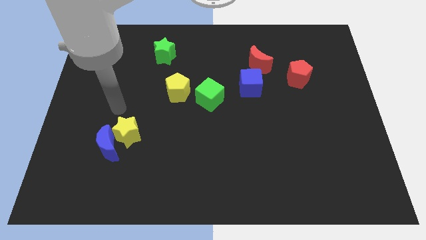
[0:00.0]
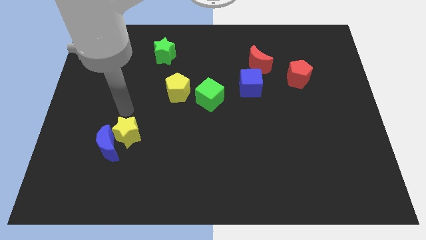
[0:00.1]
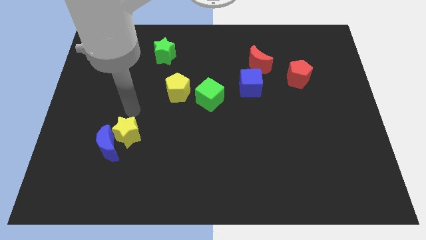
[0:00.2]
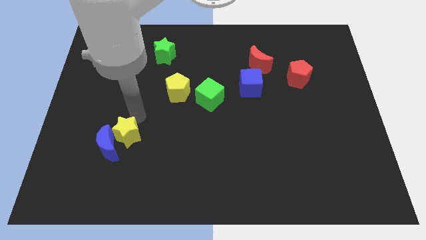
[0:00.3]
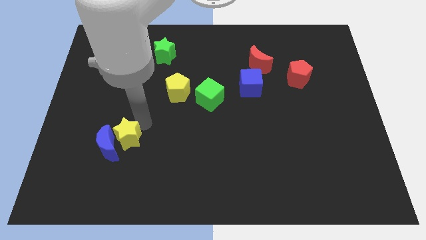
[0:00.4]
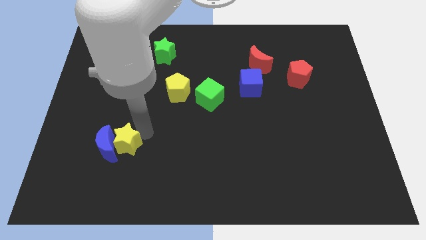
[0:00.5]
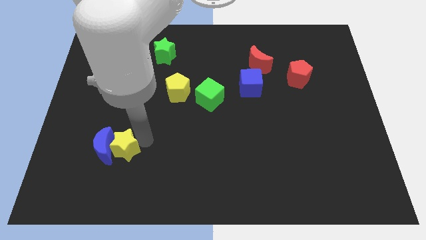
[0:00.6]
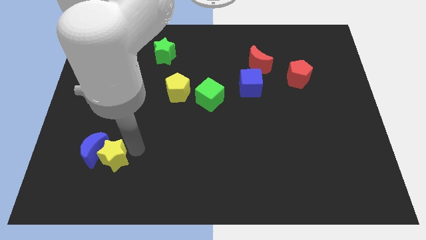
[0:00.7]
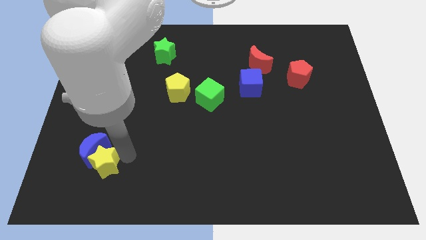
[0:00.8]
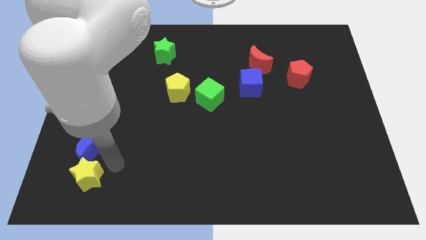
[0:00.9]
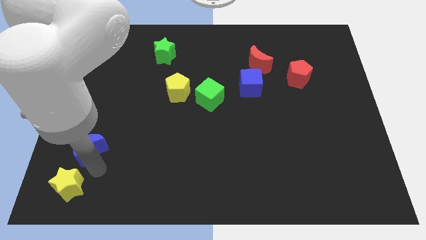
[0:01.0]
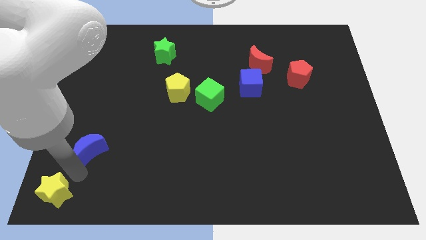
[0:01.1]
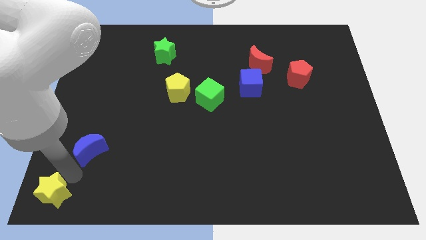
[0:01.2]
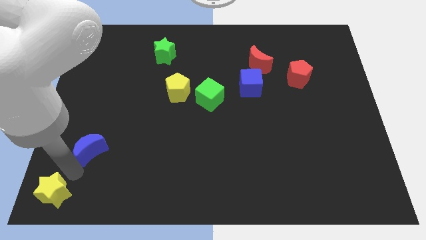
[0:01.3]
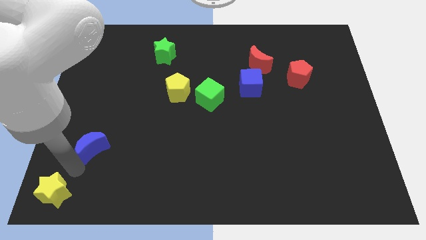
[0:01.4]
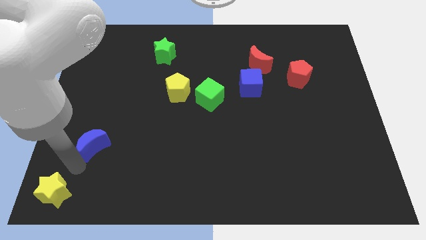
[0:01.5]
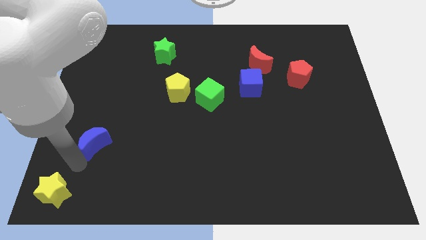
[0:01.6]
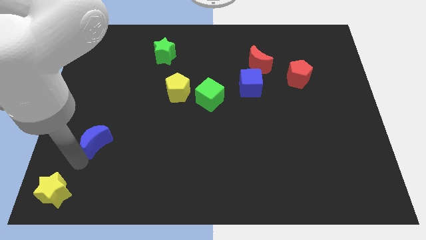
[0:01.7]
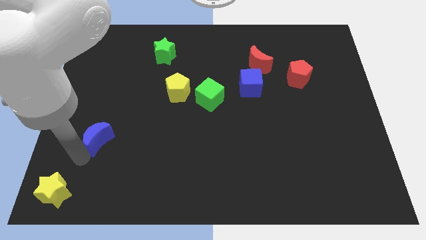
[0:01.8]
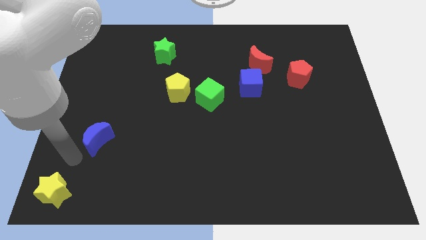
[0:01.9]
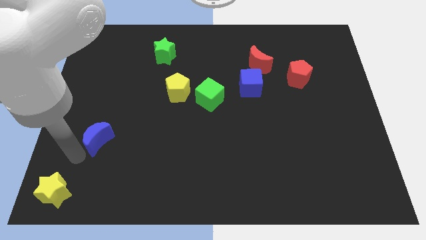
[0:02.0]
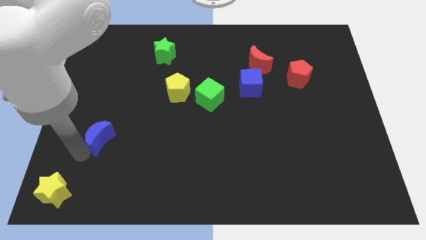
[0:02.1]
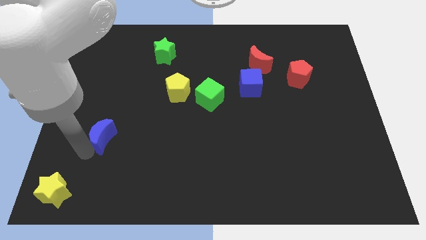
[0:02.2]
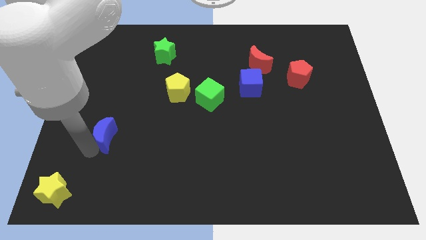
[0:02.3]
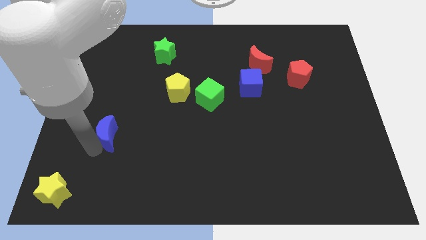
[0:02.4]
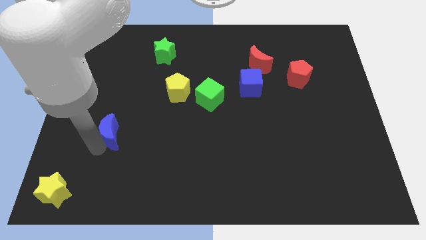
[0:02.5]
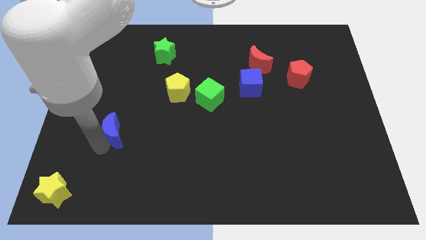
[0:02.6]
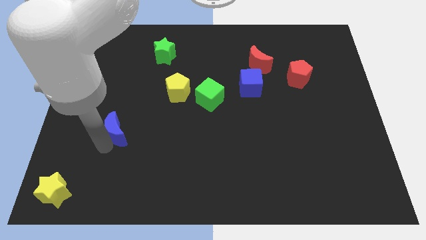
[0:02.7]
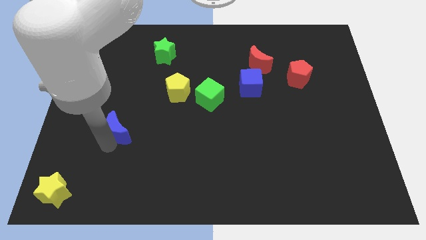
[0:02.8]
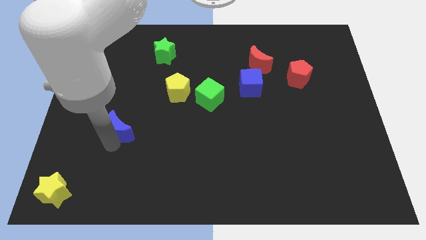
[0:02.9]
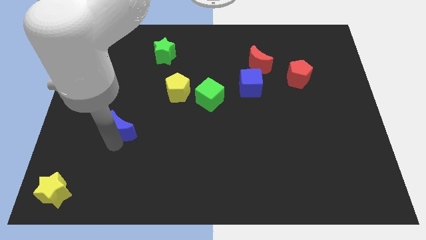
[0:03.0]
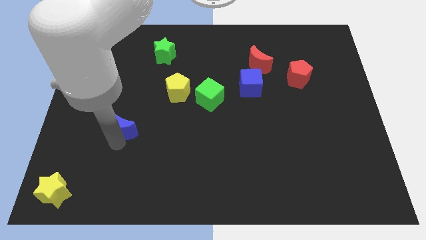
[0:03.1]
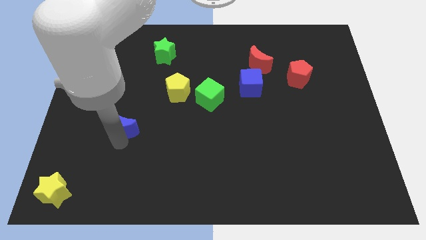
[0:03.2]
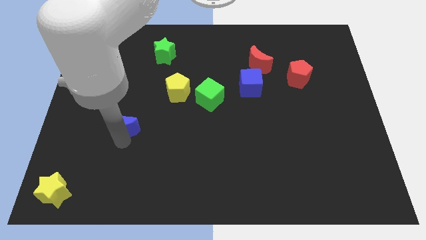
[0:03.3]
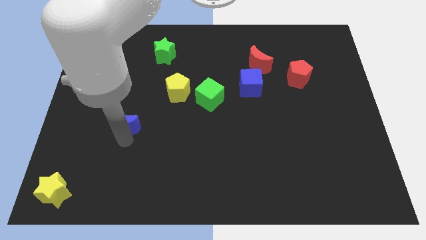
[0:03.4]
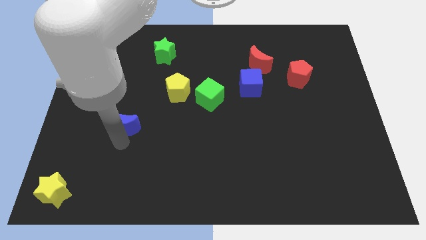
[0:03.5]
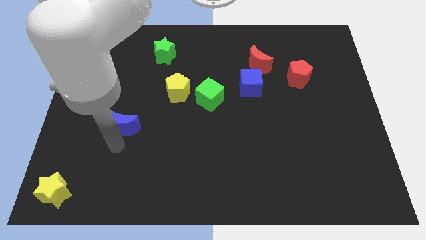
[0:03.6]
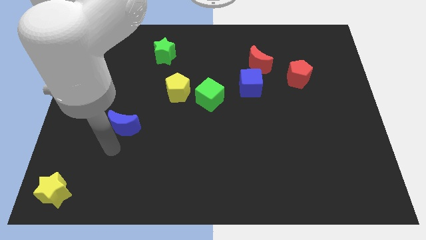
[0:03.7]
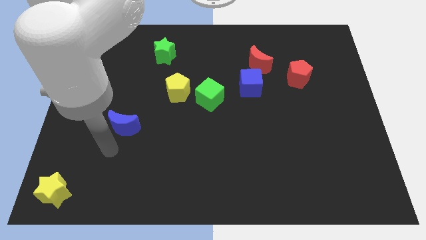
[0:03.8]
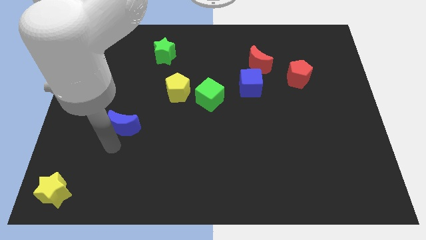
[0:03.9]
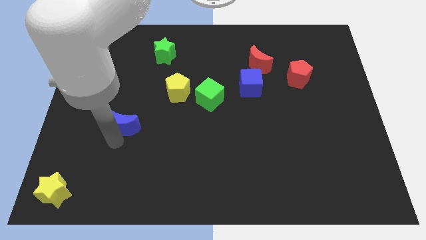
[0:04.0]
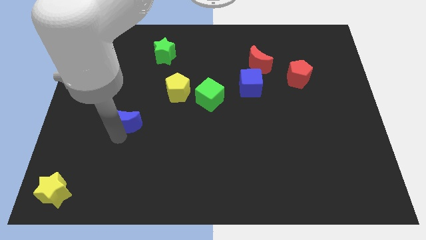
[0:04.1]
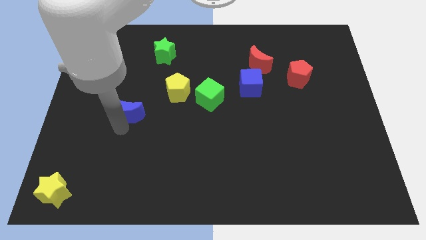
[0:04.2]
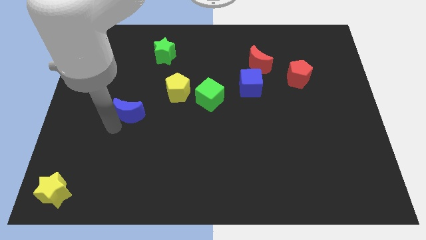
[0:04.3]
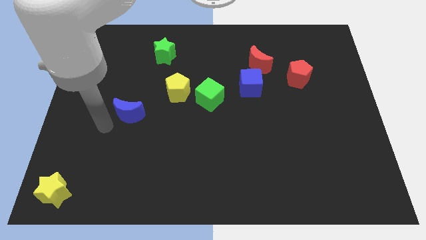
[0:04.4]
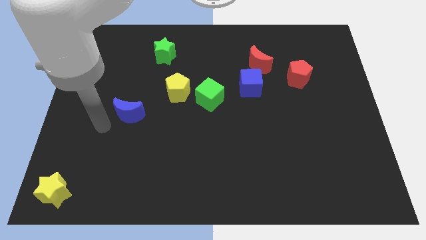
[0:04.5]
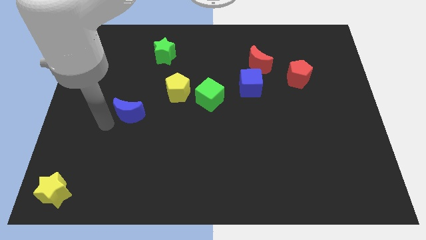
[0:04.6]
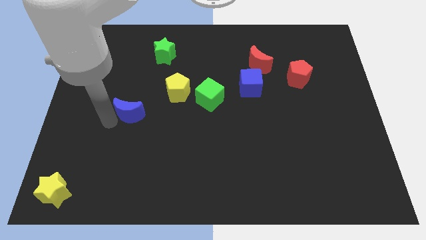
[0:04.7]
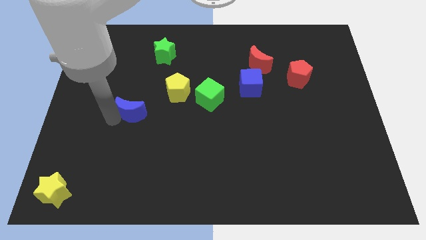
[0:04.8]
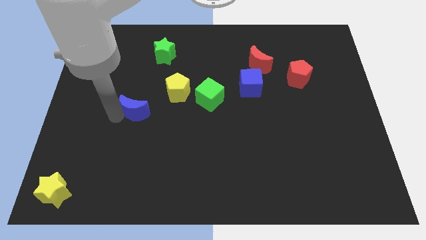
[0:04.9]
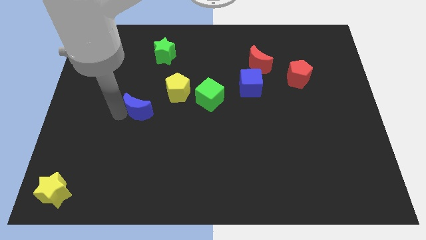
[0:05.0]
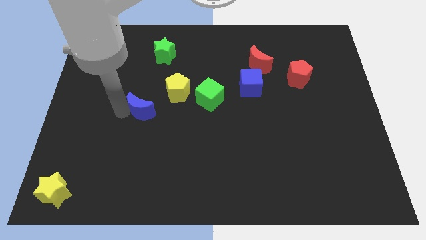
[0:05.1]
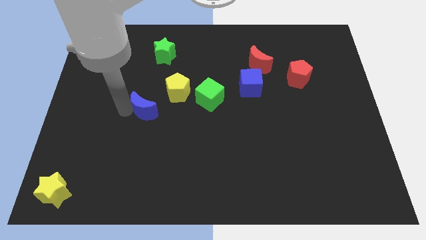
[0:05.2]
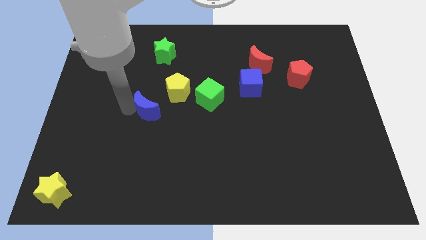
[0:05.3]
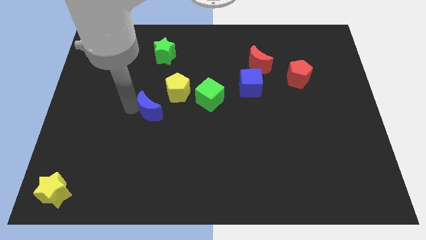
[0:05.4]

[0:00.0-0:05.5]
move the blue moon left of the green cube

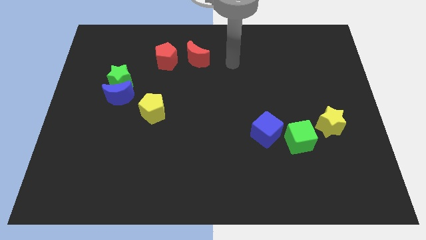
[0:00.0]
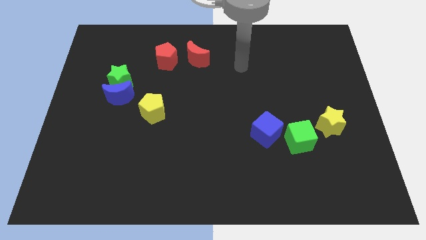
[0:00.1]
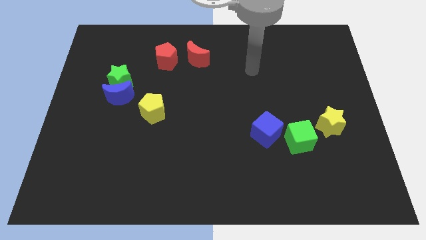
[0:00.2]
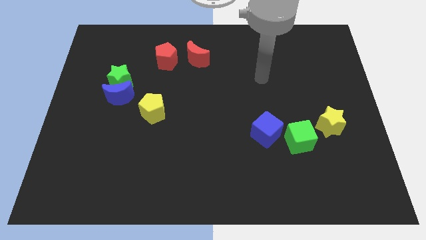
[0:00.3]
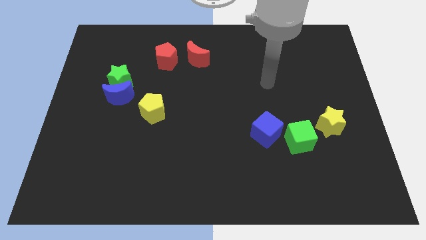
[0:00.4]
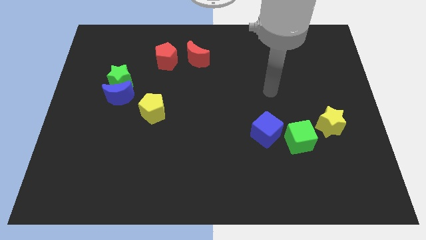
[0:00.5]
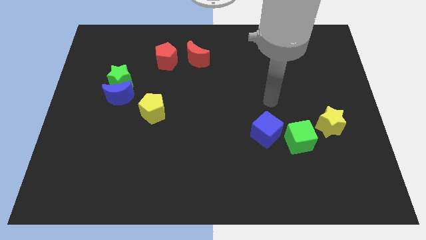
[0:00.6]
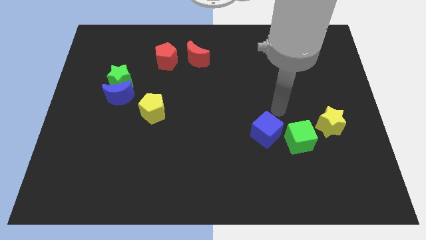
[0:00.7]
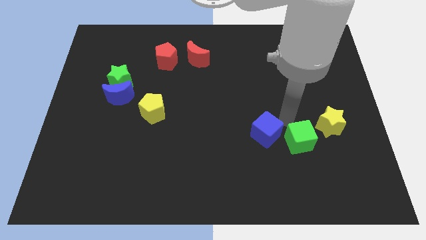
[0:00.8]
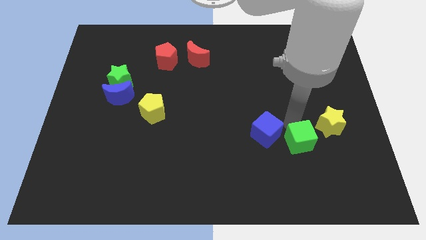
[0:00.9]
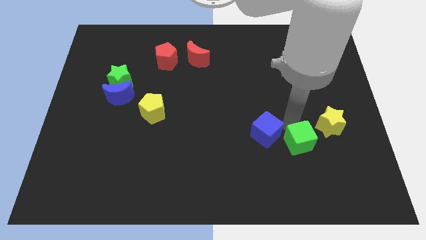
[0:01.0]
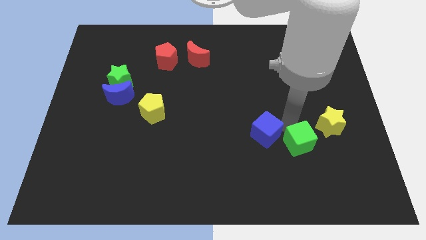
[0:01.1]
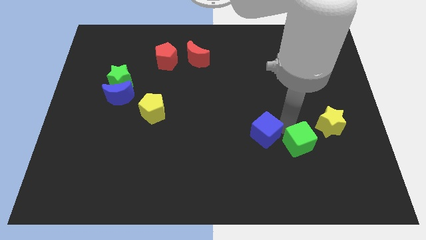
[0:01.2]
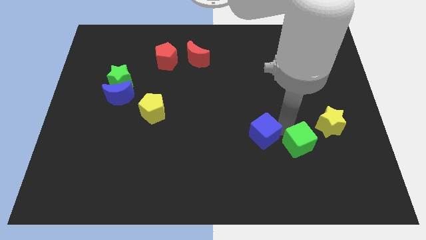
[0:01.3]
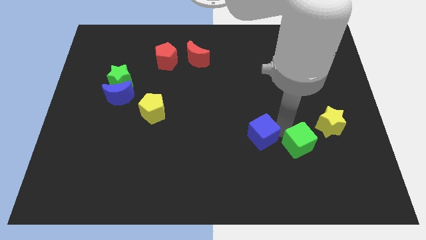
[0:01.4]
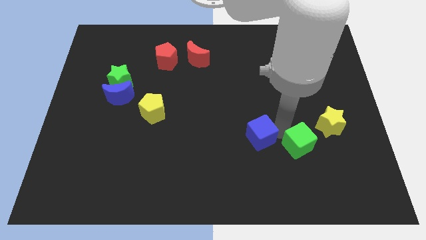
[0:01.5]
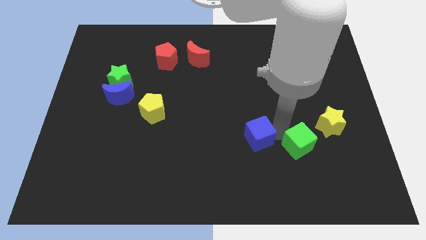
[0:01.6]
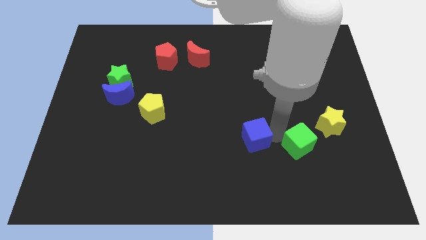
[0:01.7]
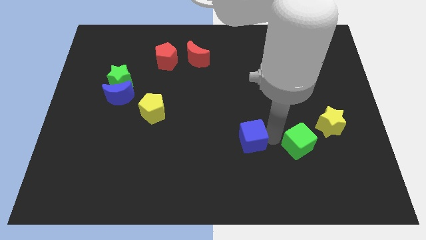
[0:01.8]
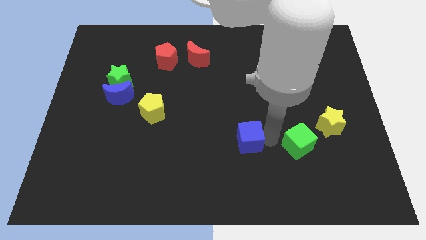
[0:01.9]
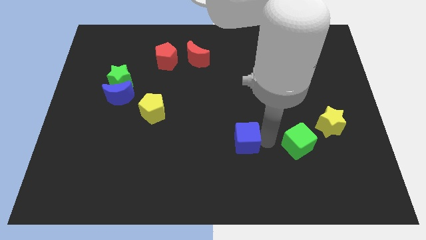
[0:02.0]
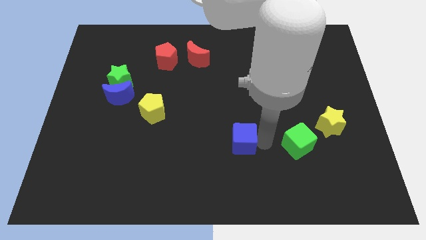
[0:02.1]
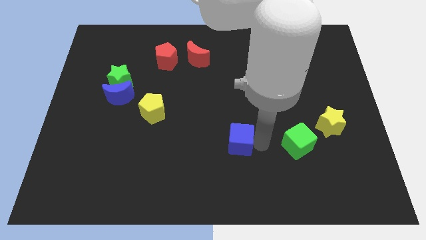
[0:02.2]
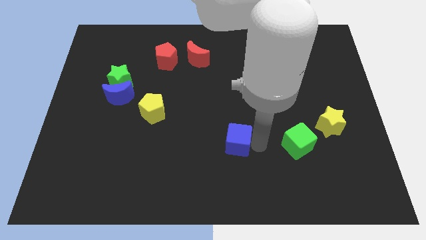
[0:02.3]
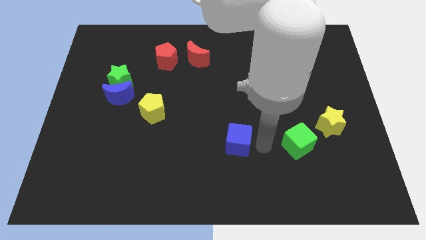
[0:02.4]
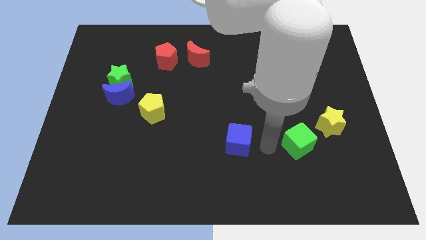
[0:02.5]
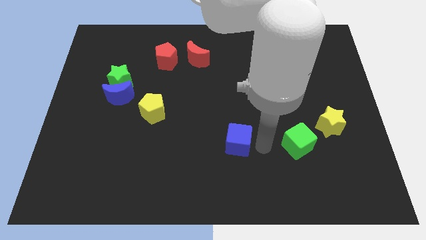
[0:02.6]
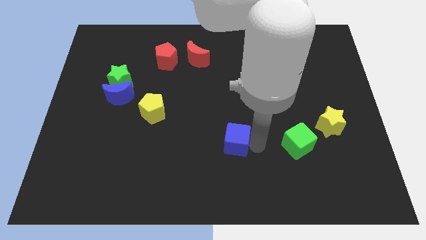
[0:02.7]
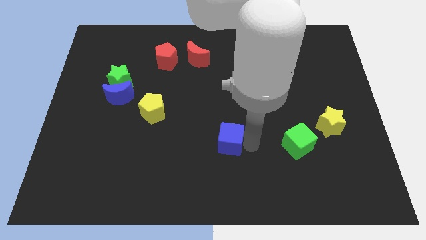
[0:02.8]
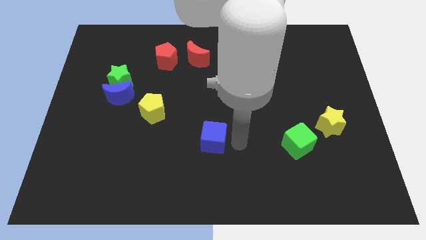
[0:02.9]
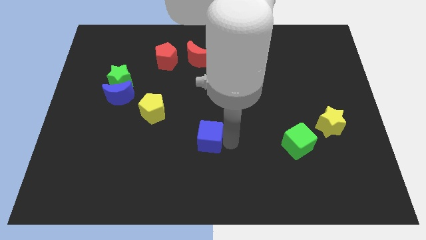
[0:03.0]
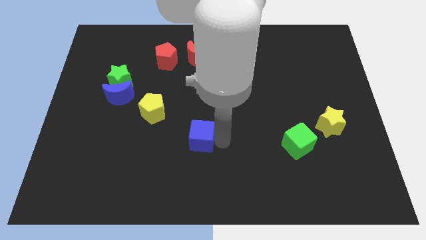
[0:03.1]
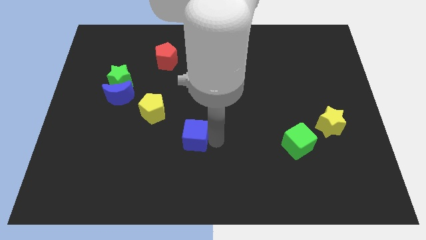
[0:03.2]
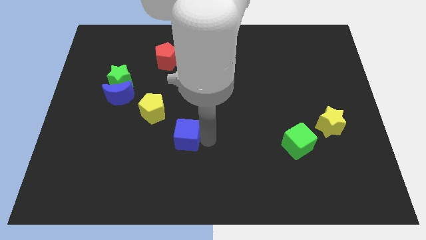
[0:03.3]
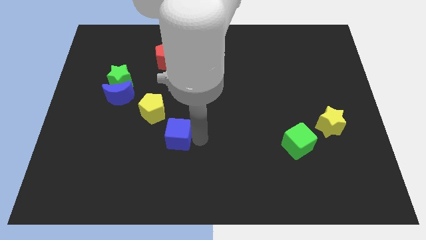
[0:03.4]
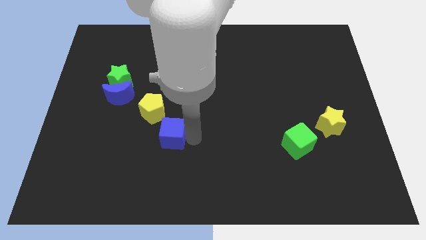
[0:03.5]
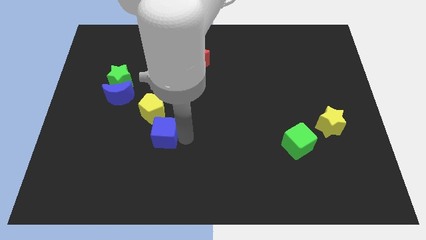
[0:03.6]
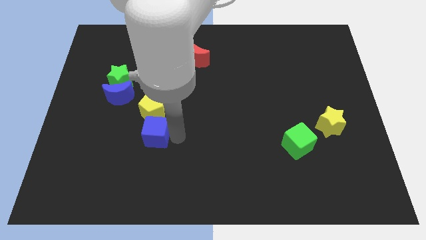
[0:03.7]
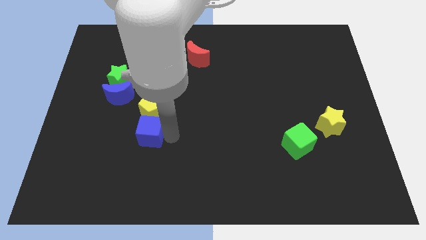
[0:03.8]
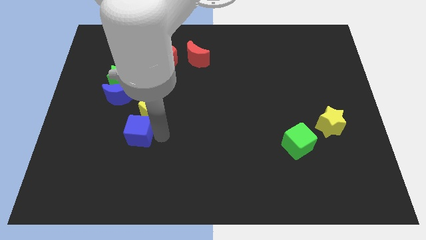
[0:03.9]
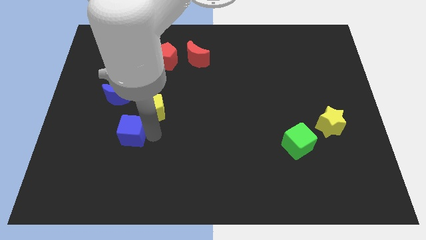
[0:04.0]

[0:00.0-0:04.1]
push the blue cube to the bottom of the blue moon
